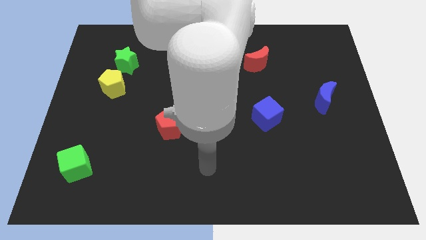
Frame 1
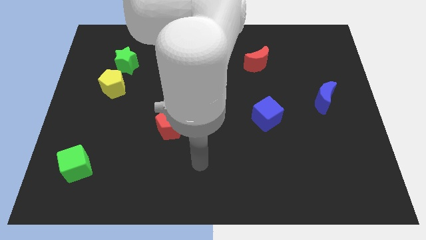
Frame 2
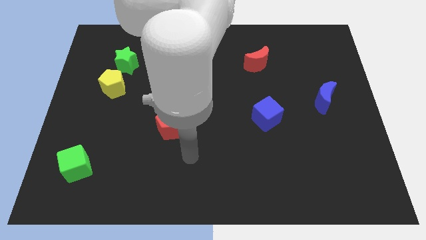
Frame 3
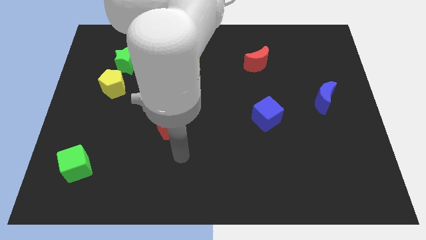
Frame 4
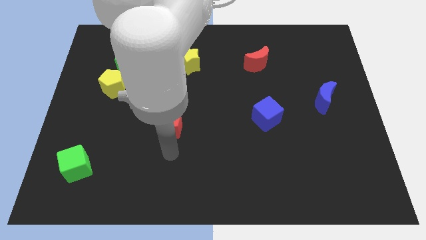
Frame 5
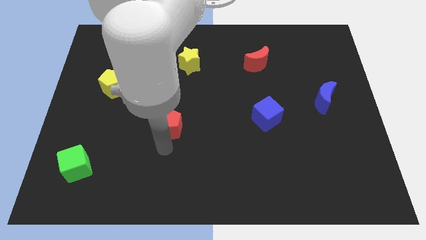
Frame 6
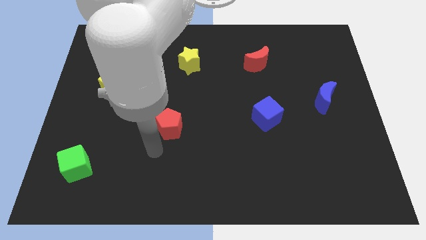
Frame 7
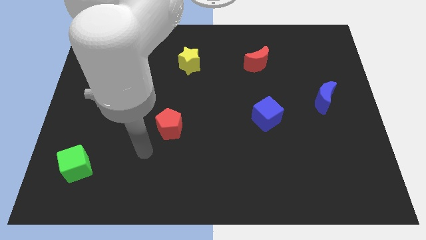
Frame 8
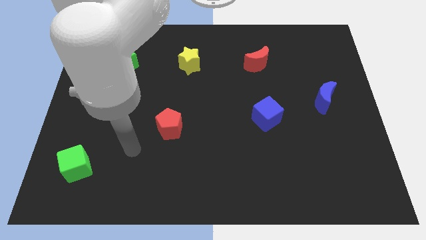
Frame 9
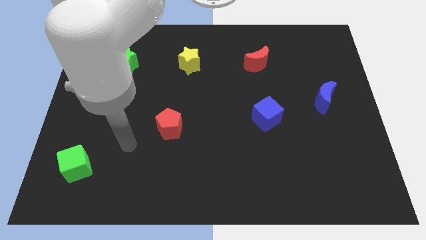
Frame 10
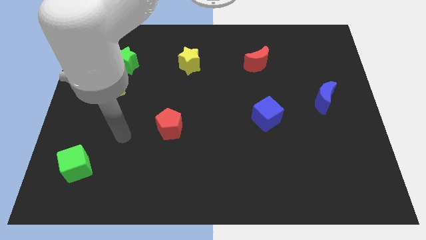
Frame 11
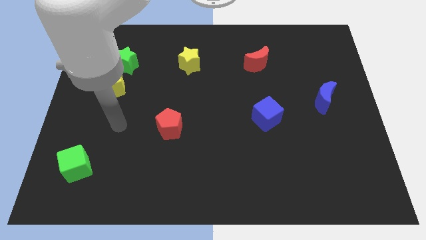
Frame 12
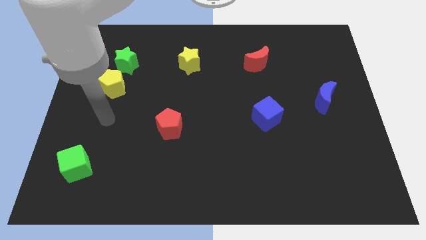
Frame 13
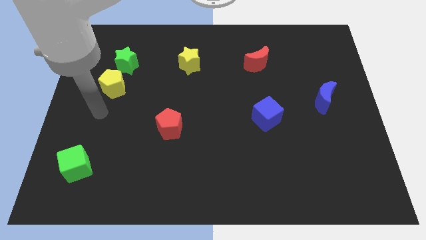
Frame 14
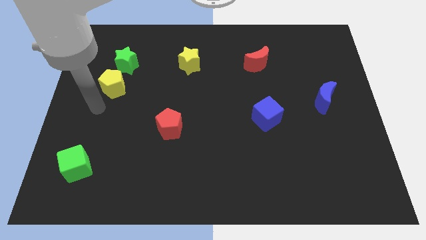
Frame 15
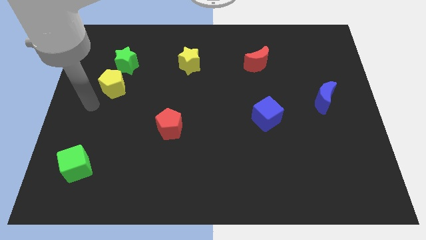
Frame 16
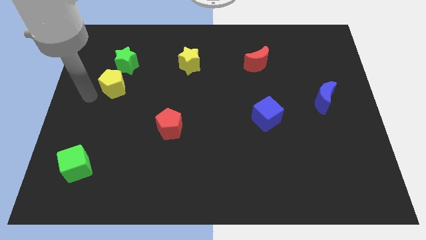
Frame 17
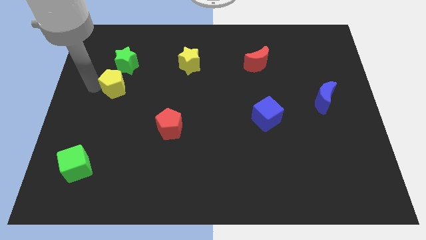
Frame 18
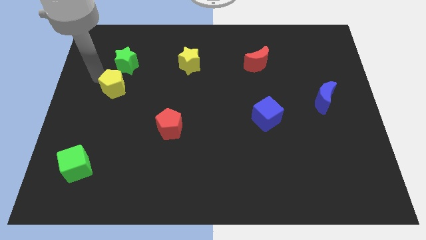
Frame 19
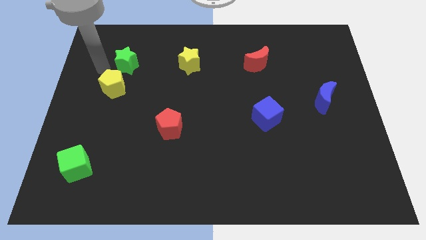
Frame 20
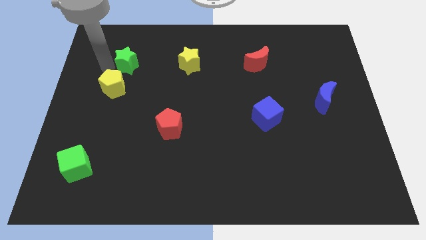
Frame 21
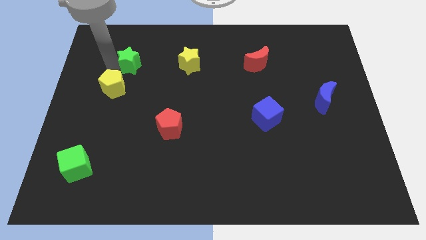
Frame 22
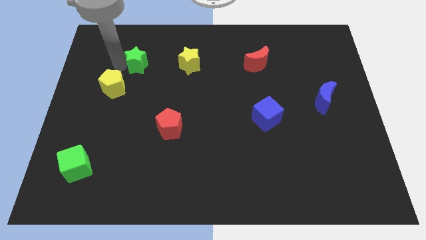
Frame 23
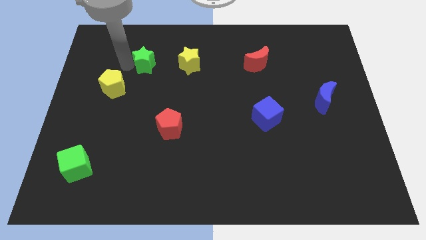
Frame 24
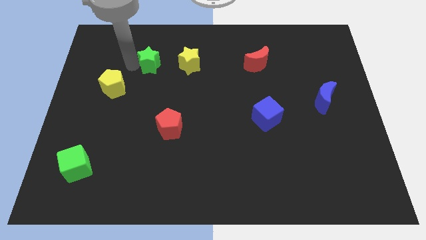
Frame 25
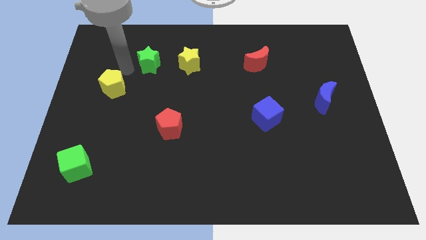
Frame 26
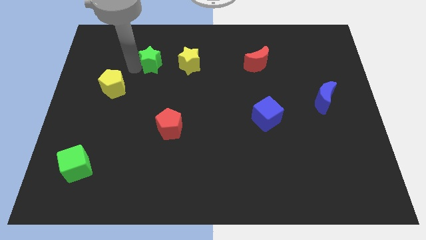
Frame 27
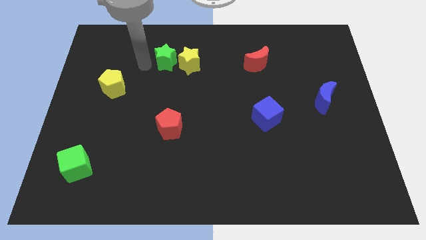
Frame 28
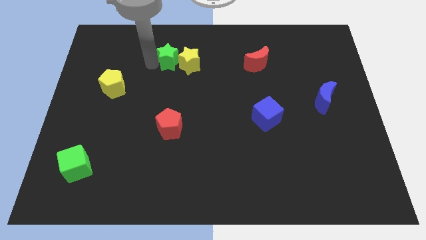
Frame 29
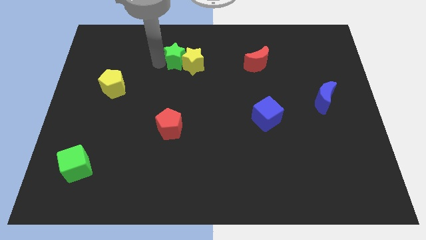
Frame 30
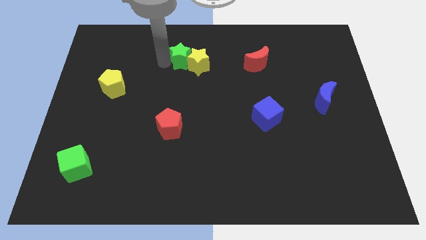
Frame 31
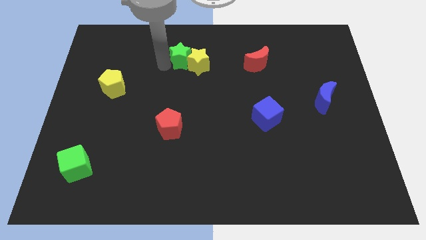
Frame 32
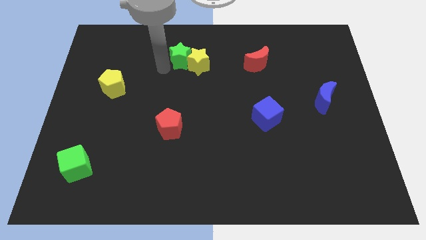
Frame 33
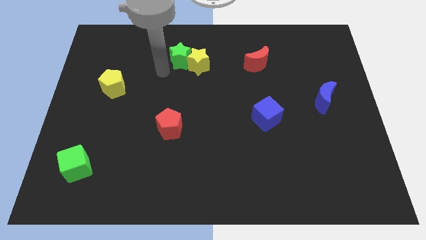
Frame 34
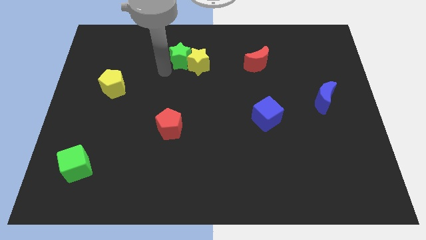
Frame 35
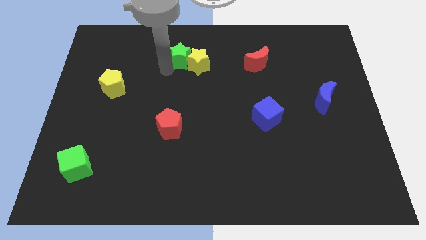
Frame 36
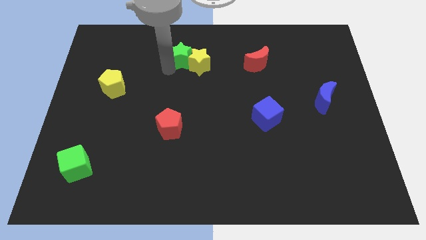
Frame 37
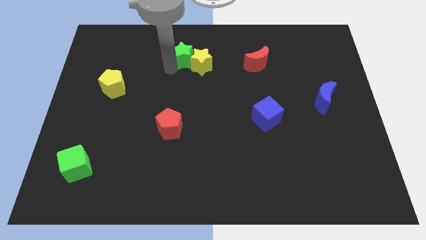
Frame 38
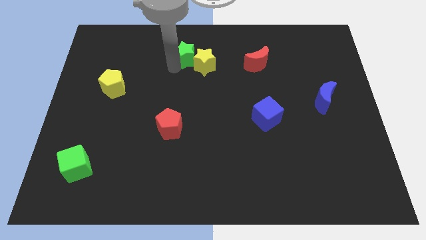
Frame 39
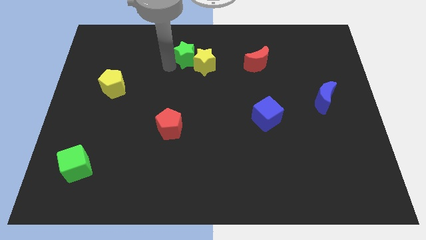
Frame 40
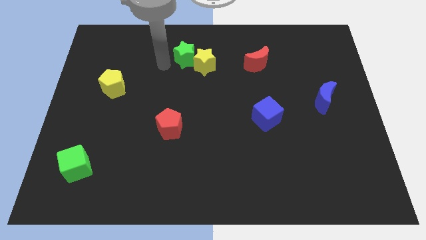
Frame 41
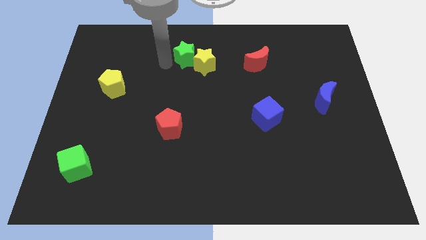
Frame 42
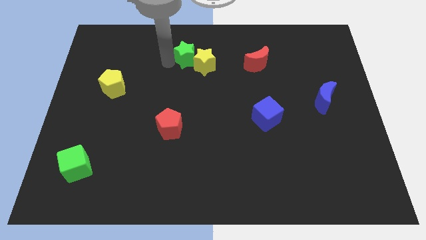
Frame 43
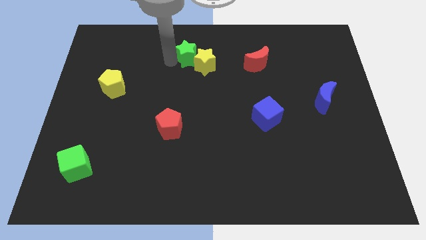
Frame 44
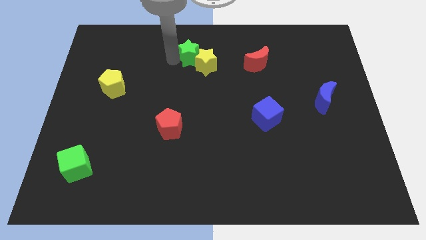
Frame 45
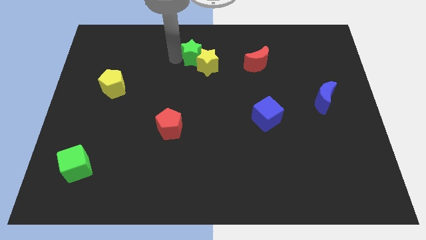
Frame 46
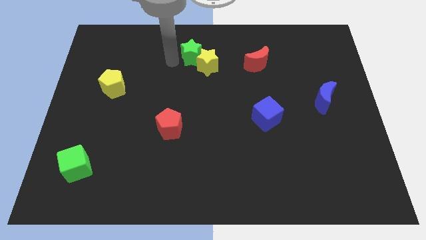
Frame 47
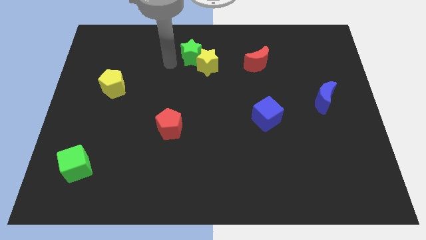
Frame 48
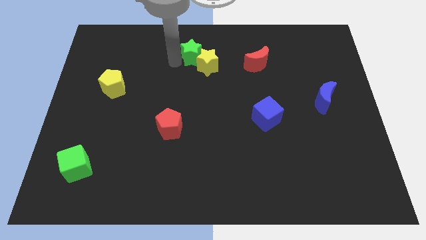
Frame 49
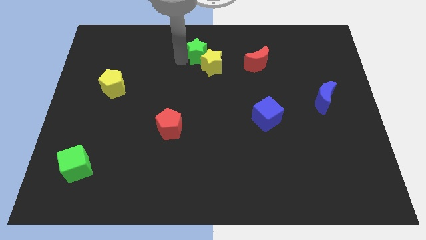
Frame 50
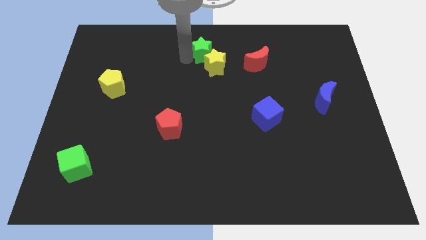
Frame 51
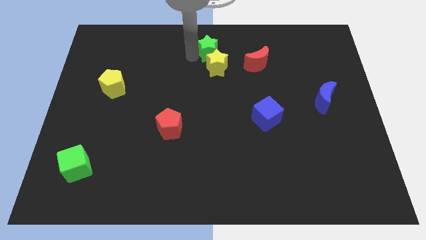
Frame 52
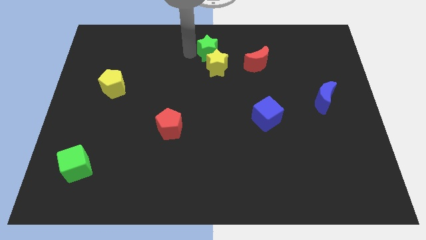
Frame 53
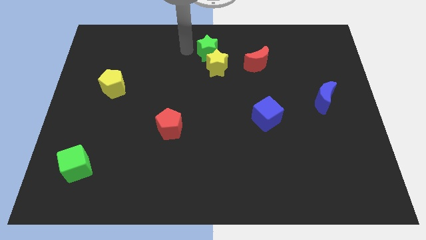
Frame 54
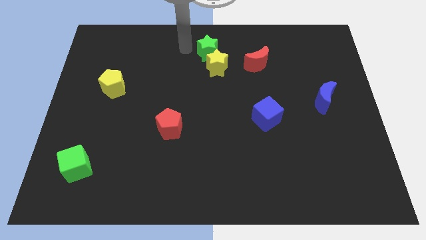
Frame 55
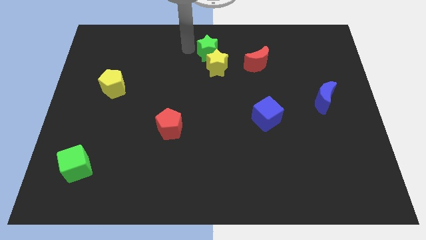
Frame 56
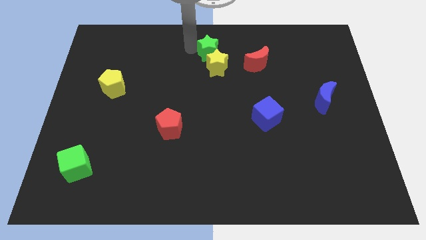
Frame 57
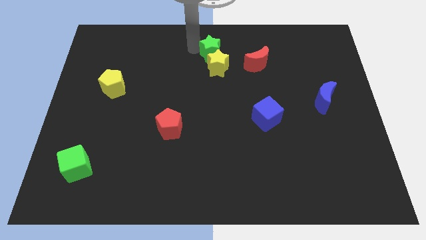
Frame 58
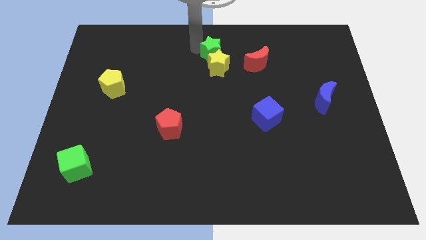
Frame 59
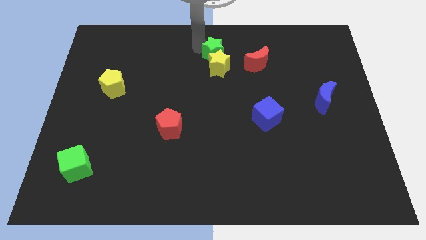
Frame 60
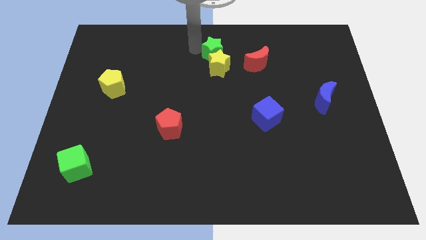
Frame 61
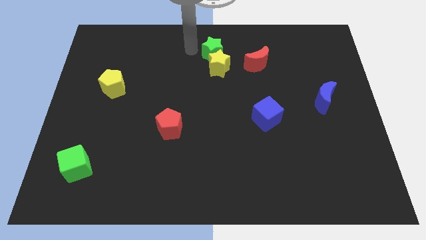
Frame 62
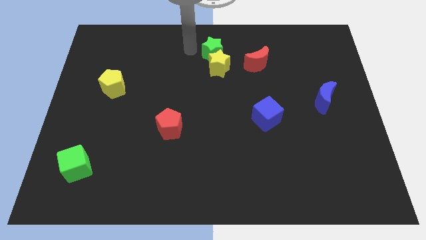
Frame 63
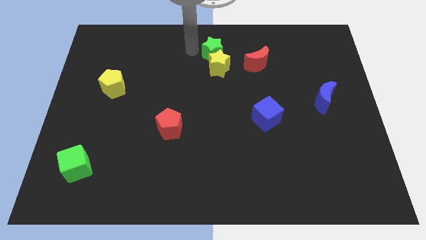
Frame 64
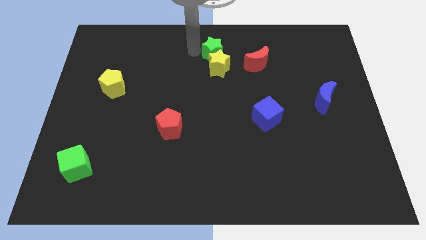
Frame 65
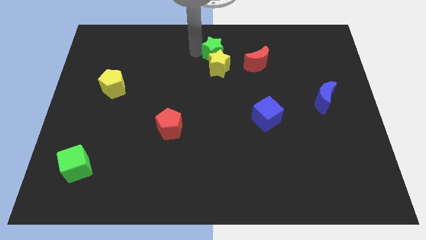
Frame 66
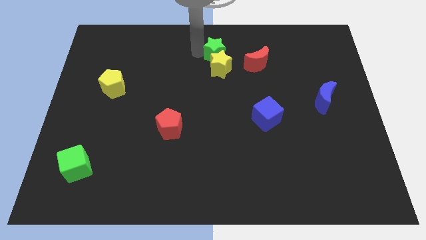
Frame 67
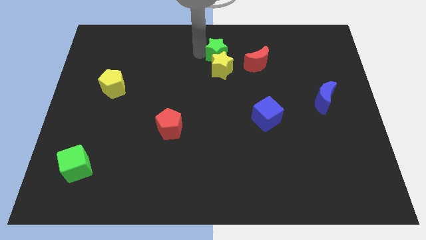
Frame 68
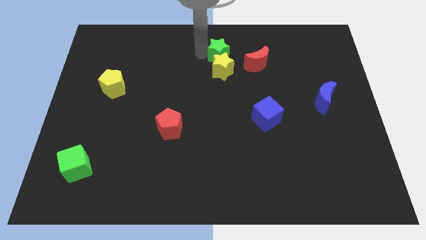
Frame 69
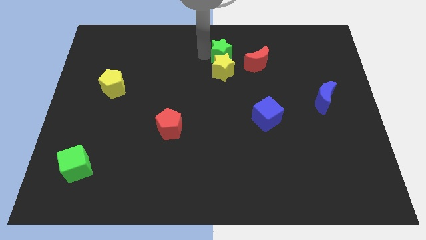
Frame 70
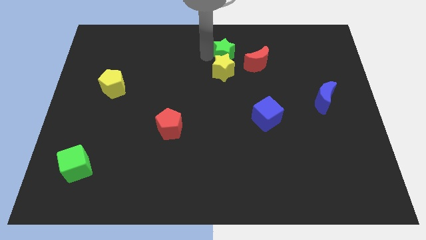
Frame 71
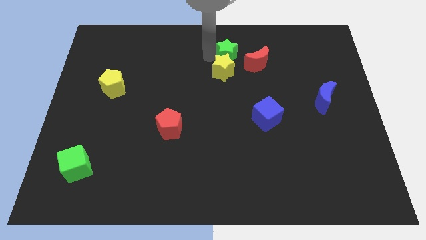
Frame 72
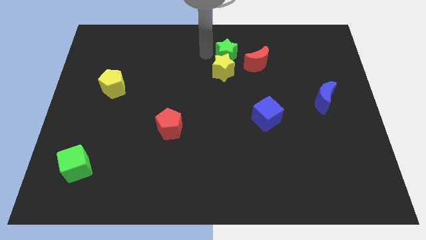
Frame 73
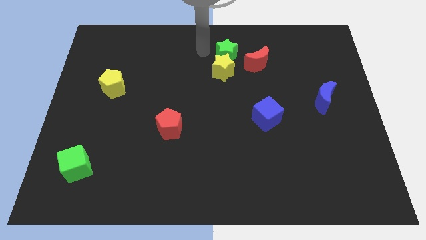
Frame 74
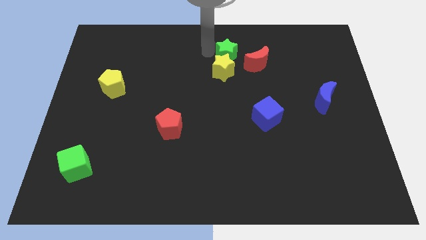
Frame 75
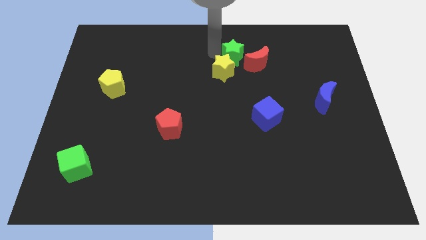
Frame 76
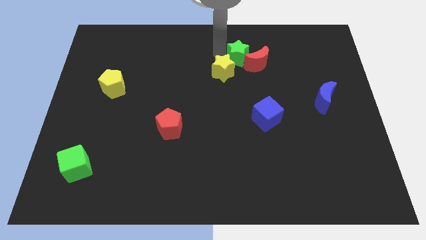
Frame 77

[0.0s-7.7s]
put the green star towards the red moon
